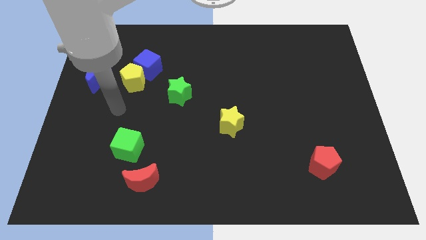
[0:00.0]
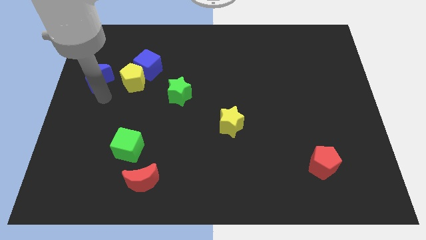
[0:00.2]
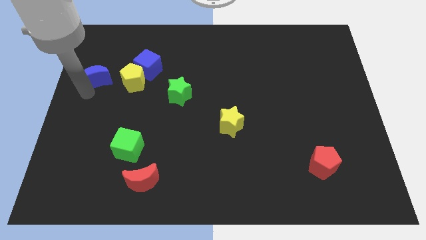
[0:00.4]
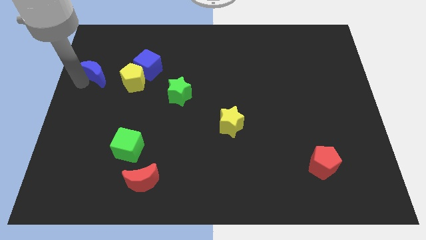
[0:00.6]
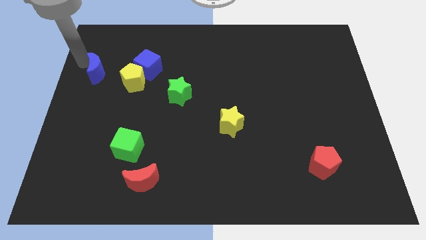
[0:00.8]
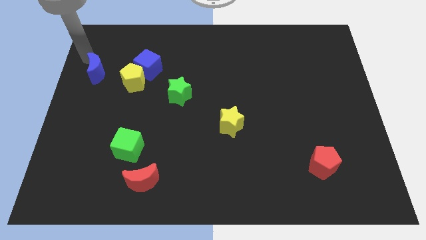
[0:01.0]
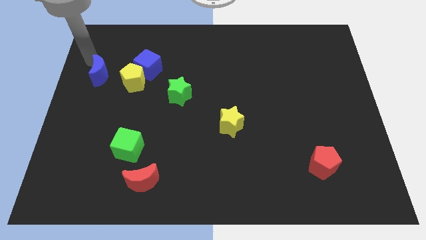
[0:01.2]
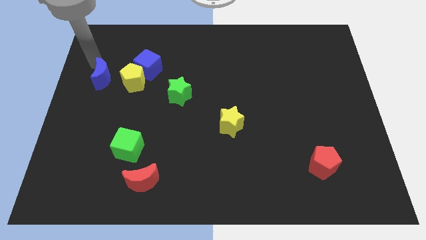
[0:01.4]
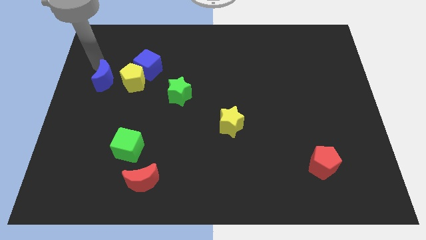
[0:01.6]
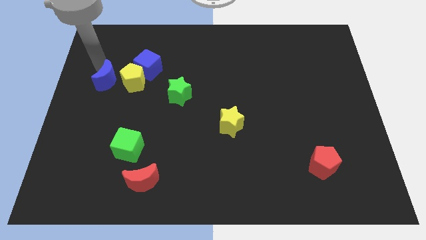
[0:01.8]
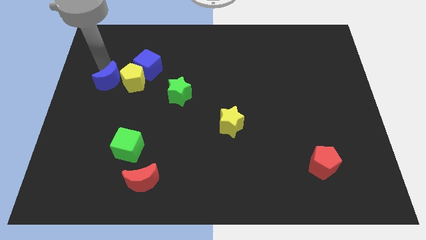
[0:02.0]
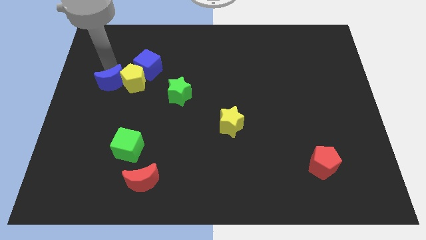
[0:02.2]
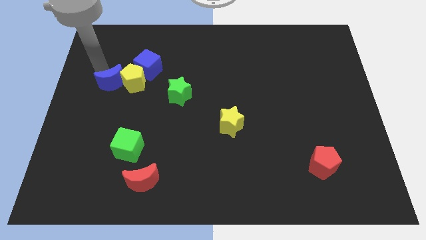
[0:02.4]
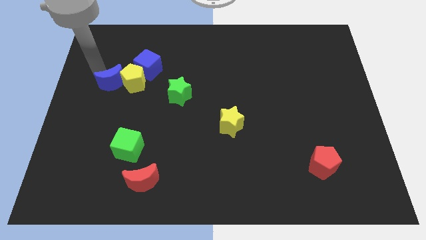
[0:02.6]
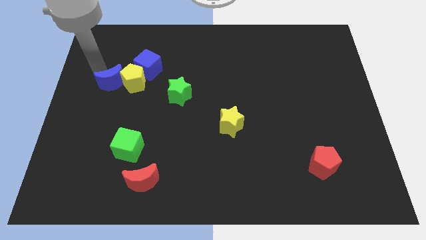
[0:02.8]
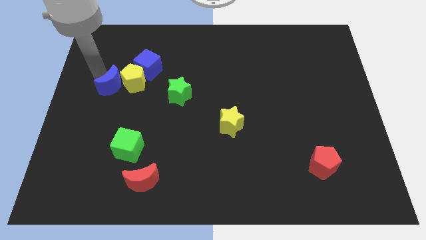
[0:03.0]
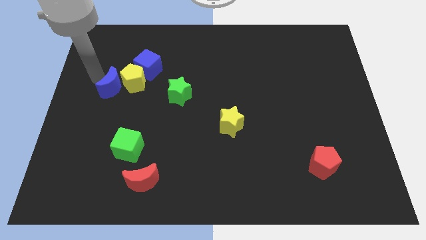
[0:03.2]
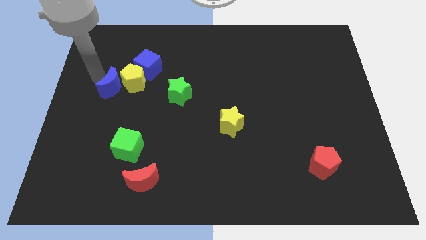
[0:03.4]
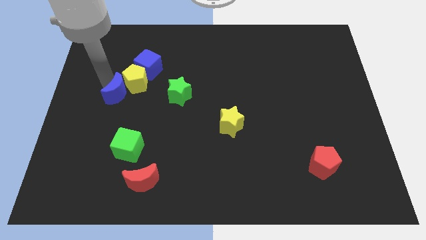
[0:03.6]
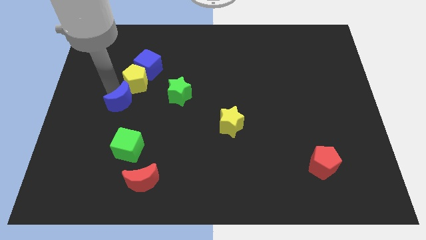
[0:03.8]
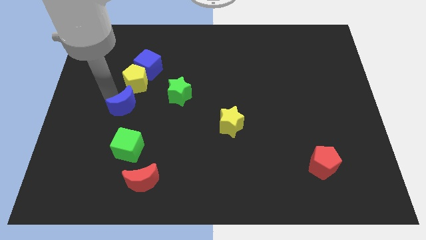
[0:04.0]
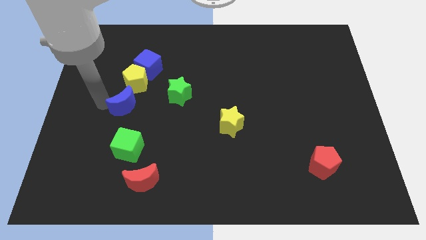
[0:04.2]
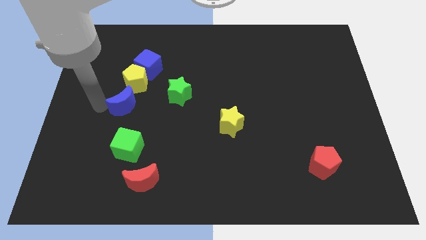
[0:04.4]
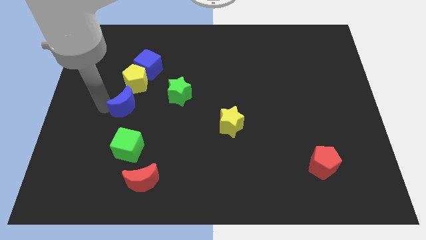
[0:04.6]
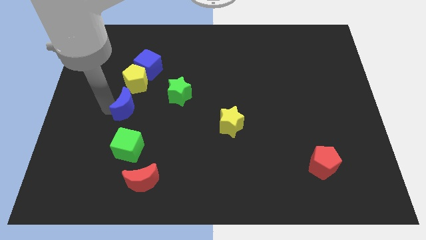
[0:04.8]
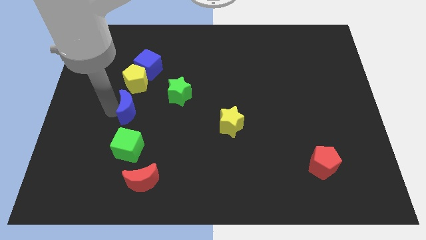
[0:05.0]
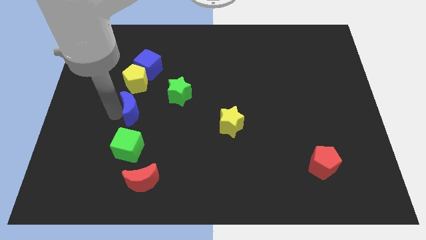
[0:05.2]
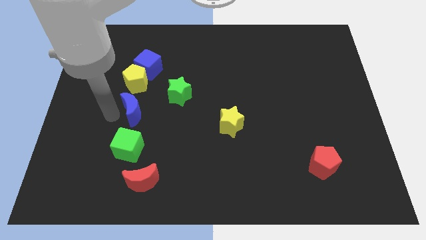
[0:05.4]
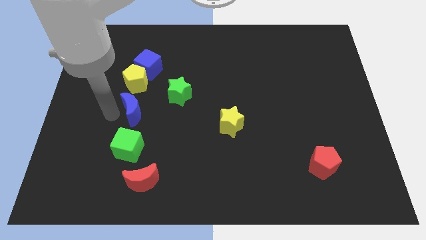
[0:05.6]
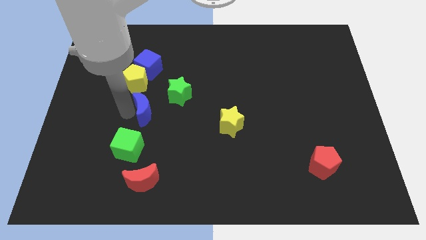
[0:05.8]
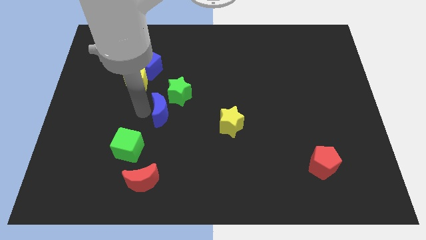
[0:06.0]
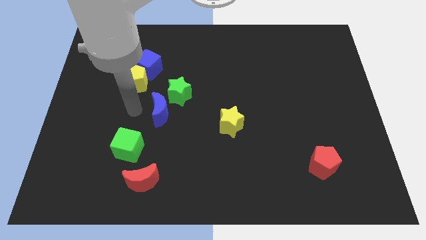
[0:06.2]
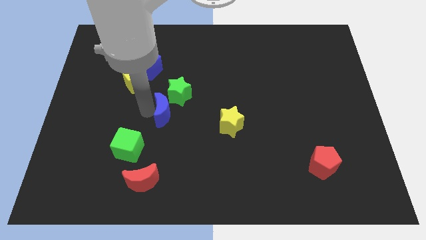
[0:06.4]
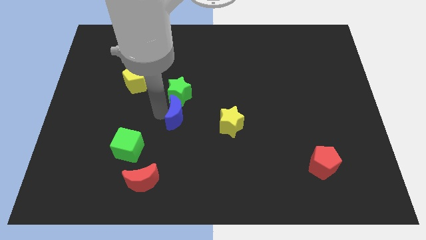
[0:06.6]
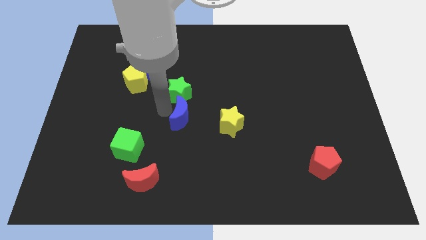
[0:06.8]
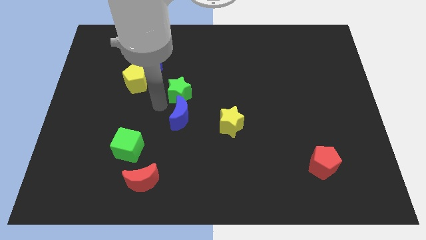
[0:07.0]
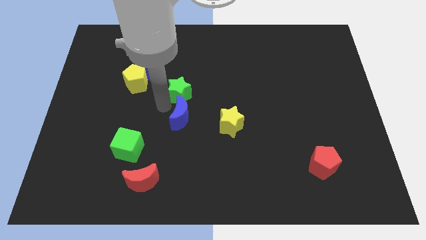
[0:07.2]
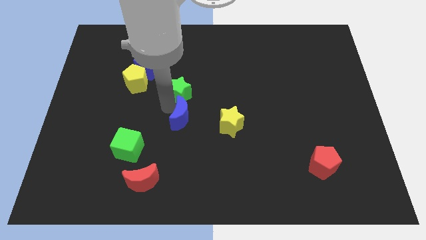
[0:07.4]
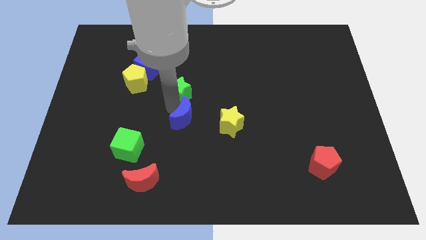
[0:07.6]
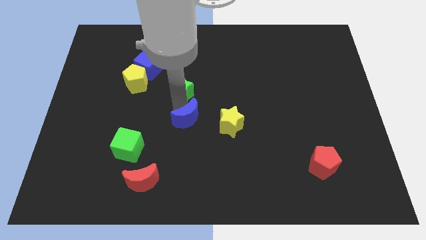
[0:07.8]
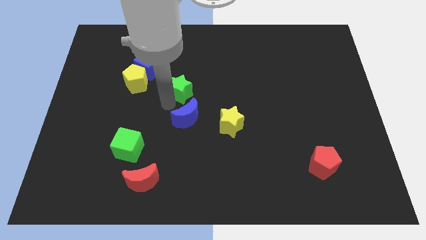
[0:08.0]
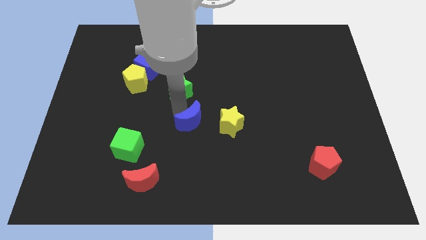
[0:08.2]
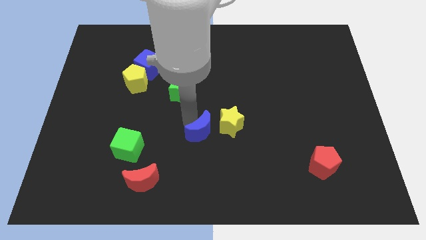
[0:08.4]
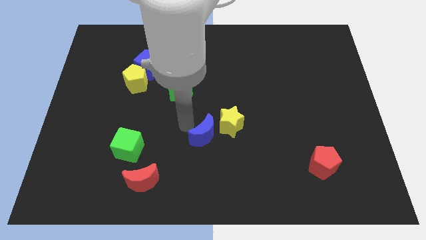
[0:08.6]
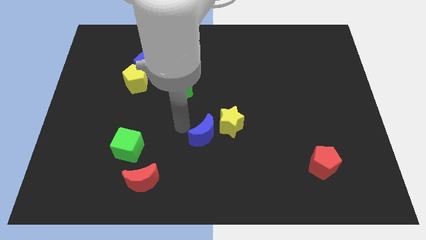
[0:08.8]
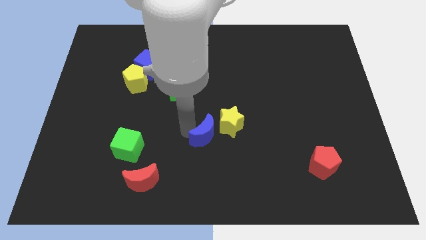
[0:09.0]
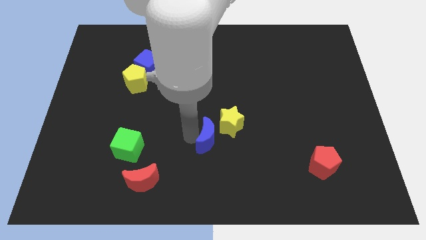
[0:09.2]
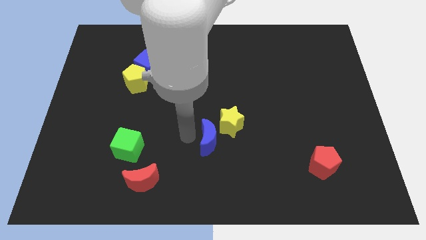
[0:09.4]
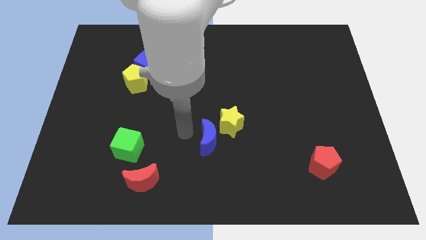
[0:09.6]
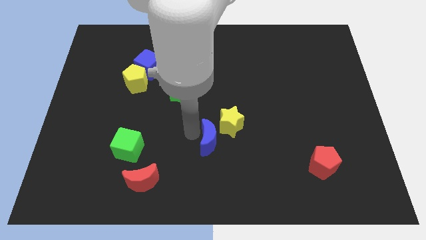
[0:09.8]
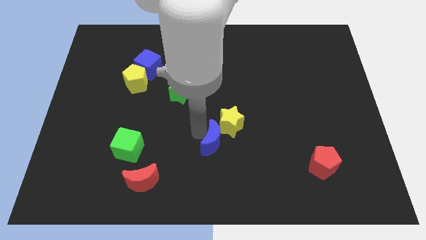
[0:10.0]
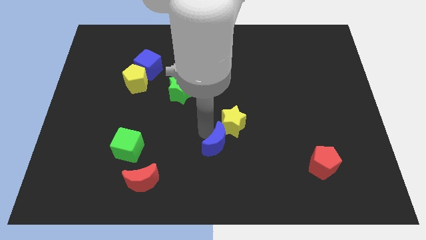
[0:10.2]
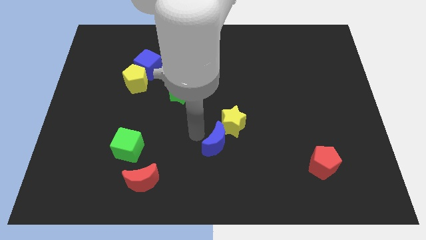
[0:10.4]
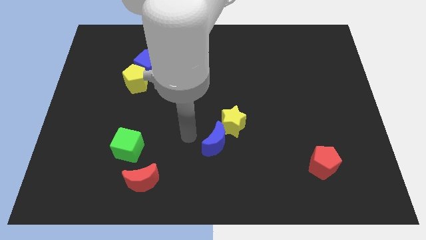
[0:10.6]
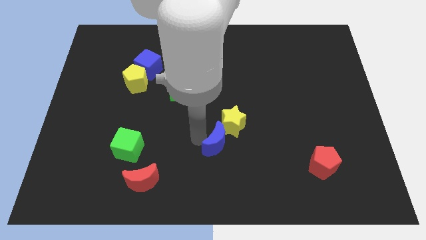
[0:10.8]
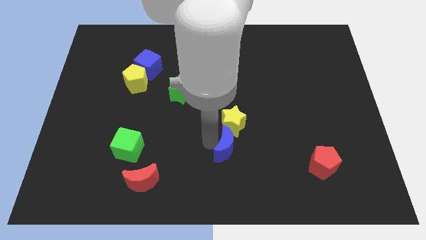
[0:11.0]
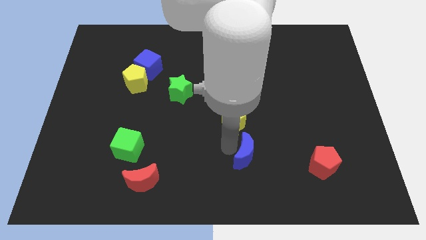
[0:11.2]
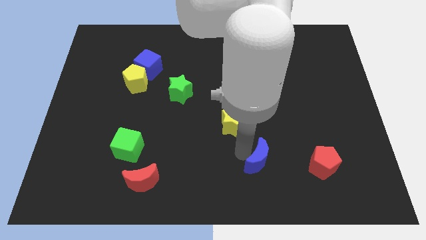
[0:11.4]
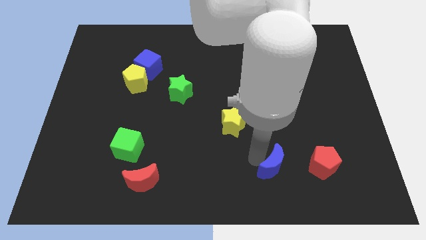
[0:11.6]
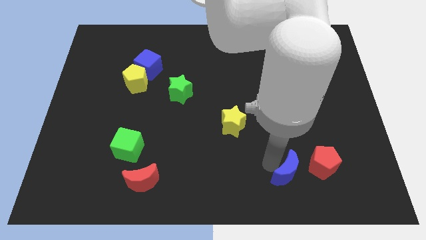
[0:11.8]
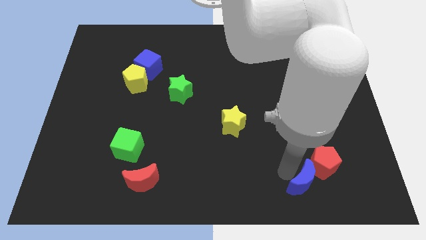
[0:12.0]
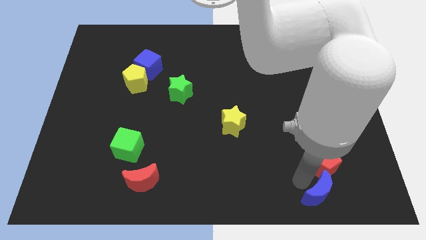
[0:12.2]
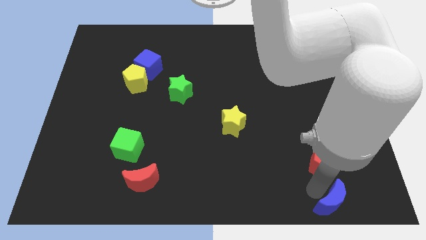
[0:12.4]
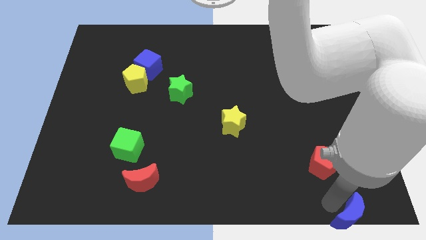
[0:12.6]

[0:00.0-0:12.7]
slide the blue moon to the bottom right corner

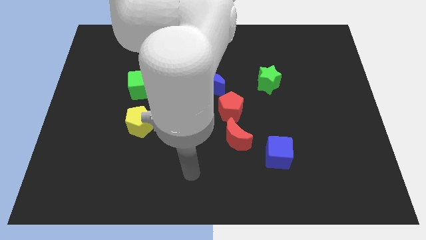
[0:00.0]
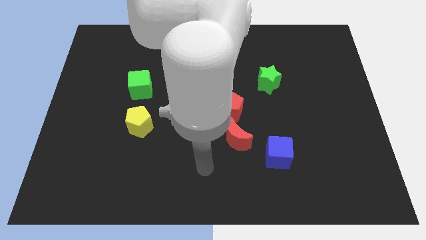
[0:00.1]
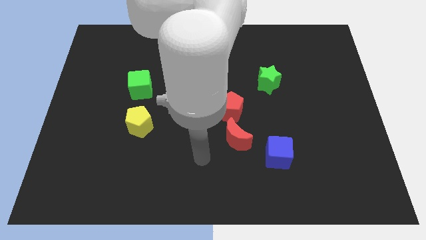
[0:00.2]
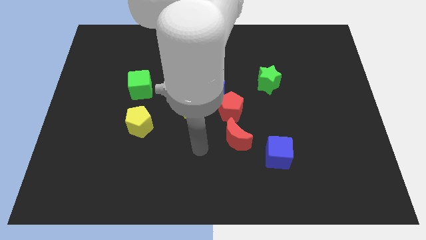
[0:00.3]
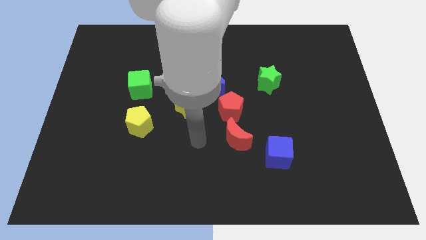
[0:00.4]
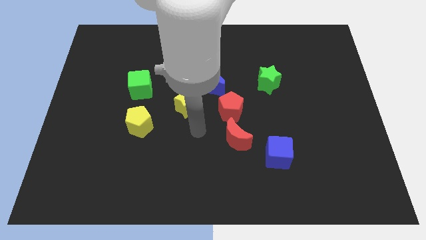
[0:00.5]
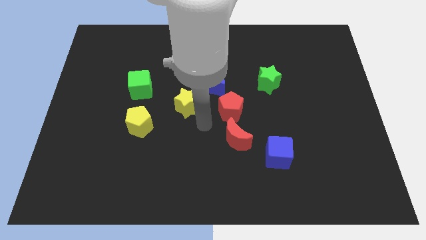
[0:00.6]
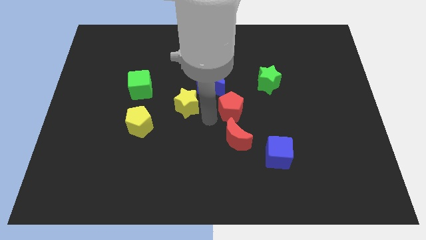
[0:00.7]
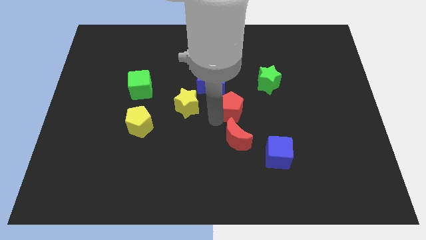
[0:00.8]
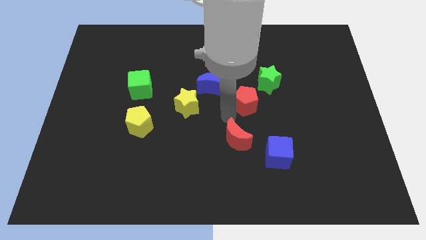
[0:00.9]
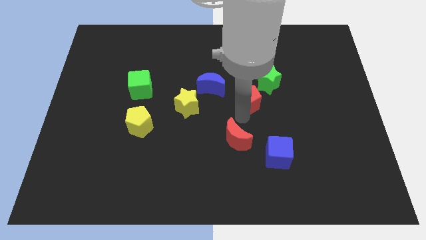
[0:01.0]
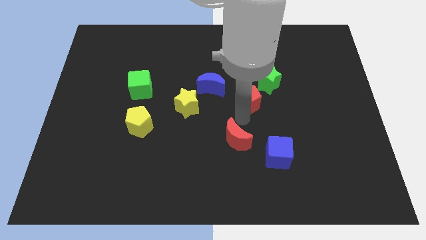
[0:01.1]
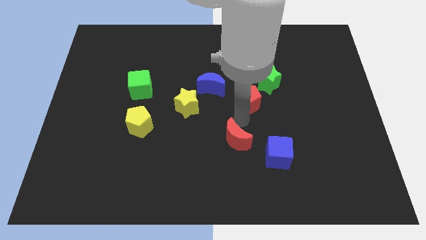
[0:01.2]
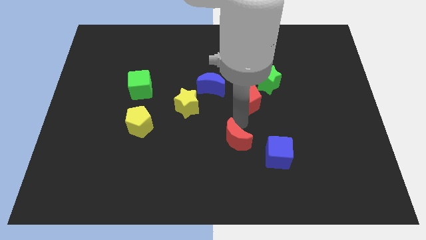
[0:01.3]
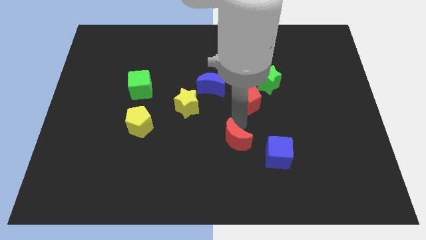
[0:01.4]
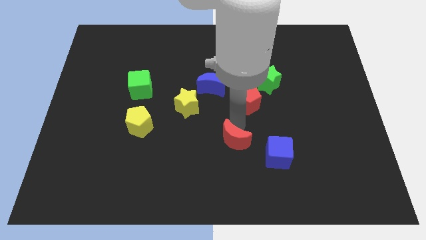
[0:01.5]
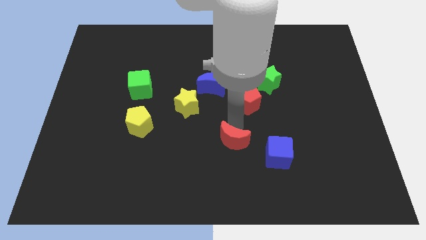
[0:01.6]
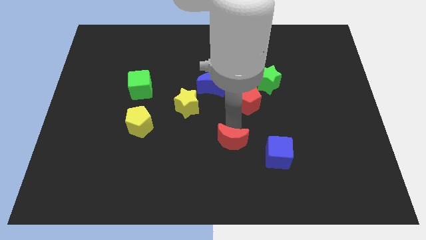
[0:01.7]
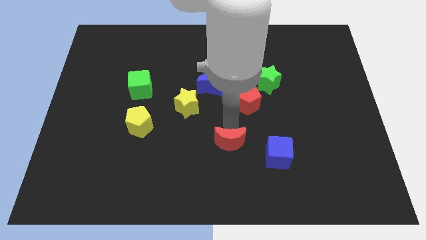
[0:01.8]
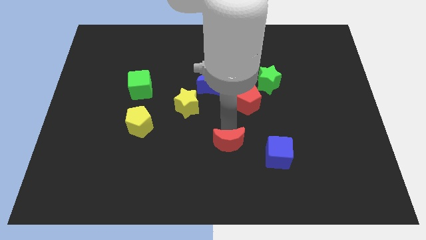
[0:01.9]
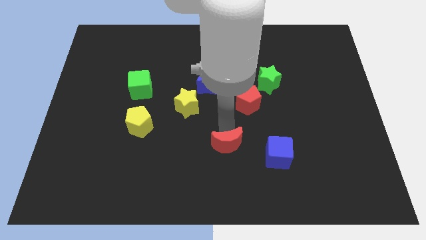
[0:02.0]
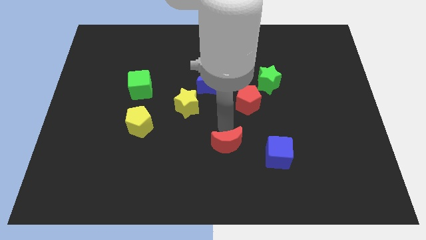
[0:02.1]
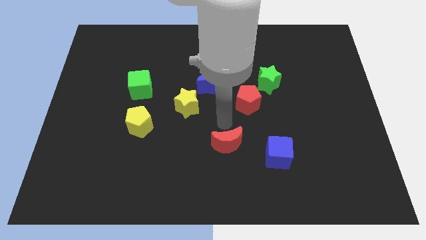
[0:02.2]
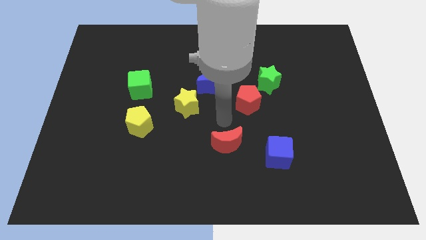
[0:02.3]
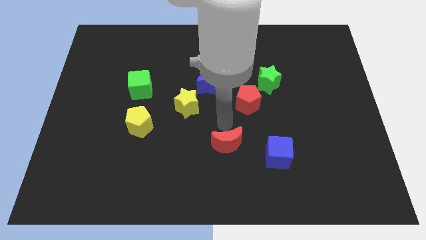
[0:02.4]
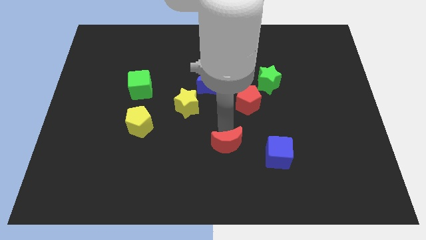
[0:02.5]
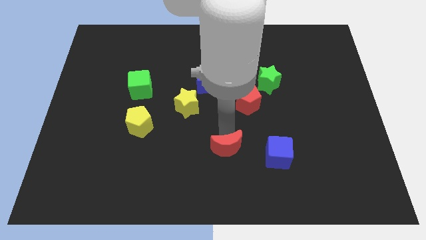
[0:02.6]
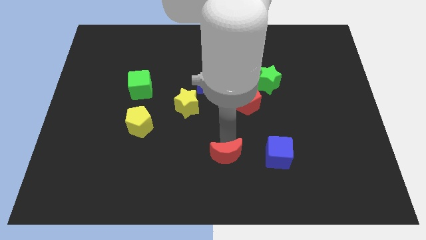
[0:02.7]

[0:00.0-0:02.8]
push the red moon to the bottom
